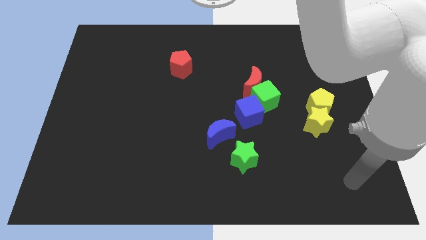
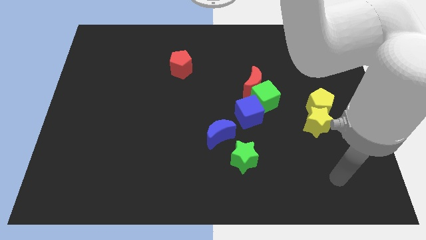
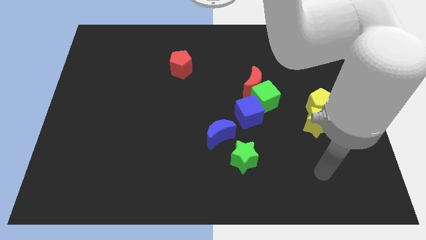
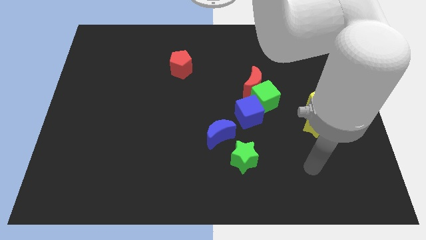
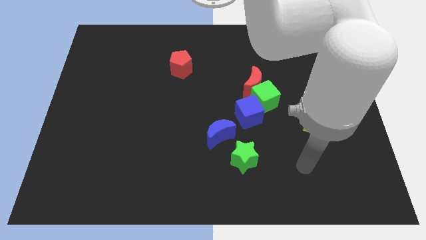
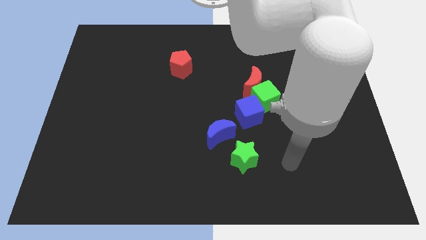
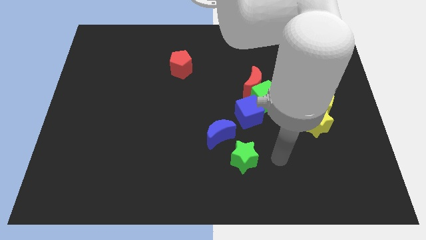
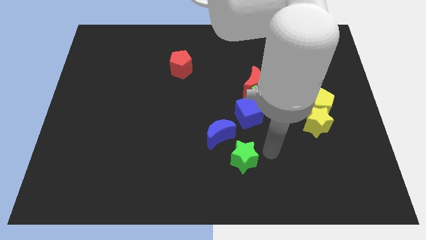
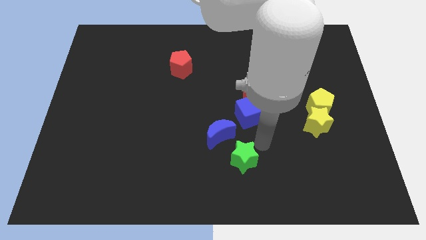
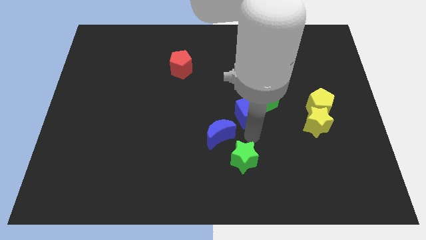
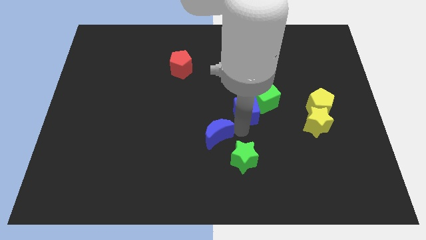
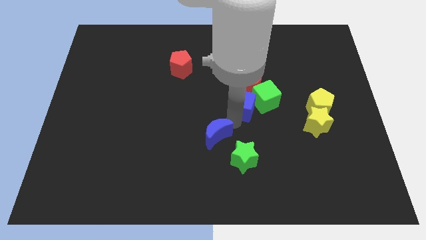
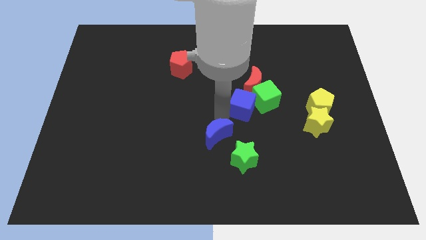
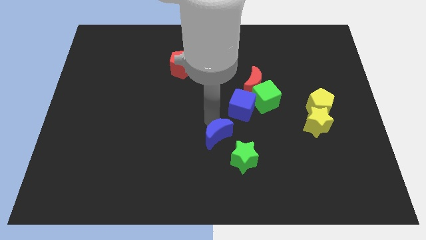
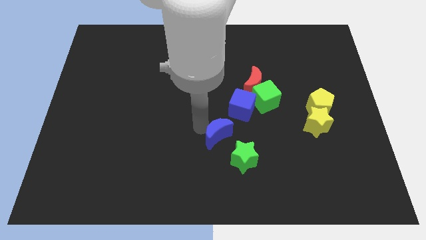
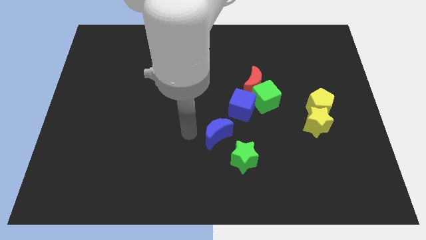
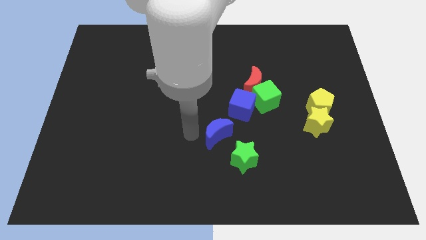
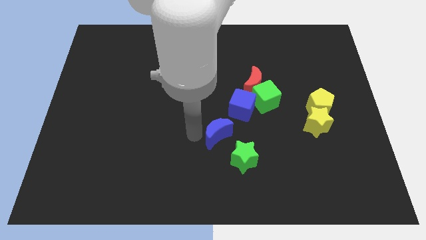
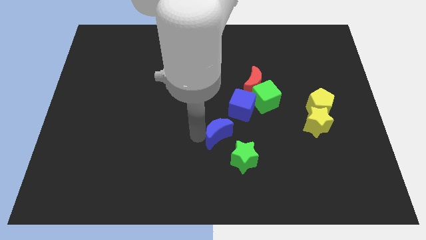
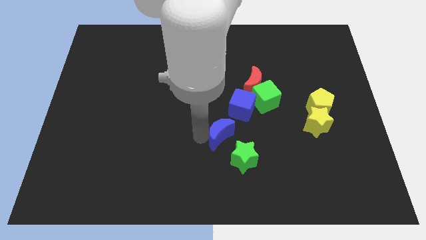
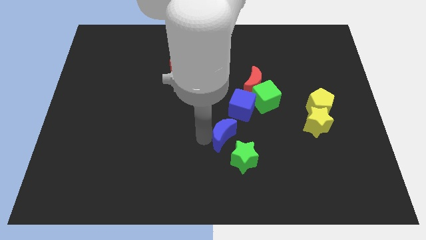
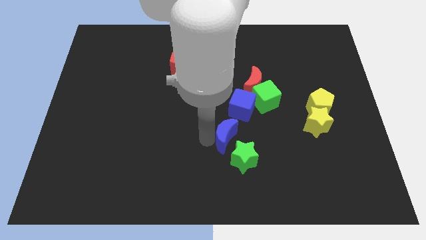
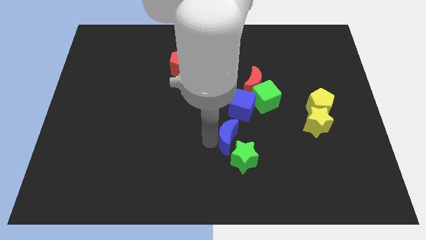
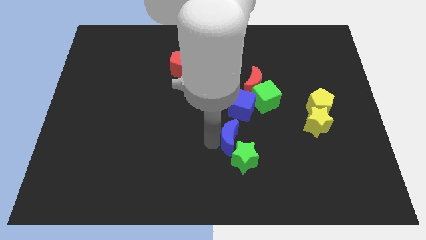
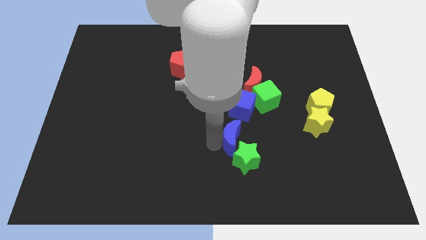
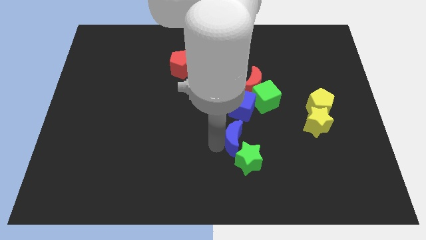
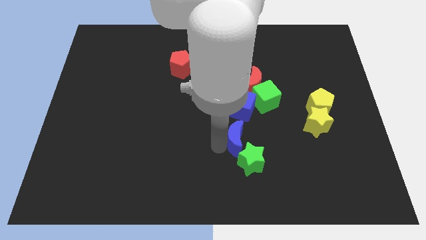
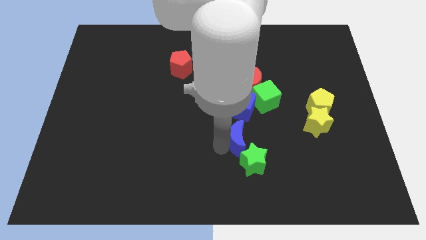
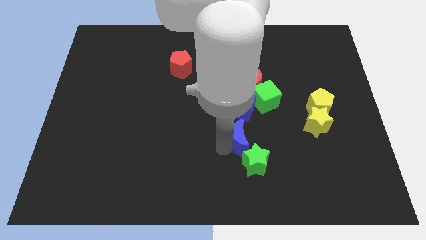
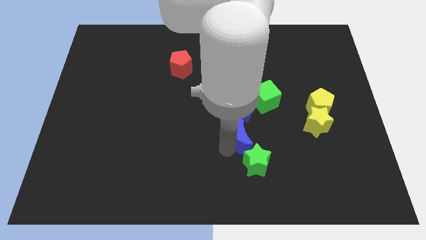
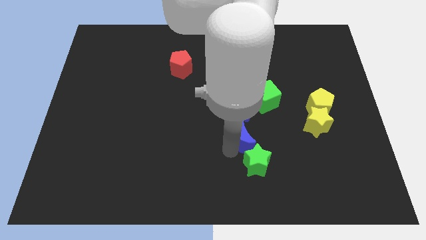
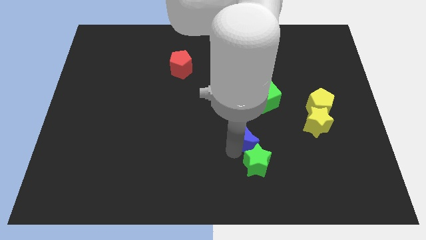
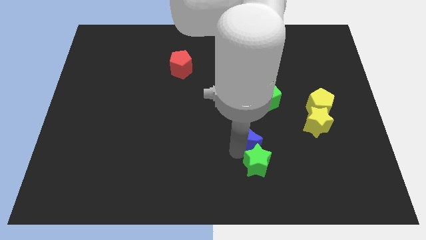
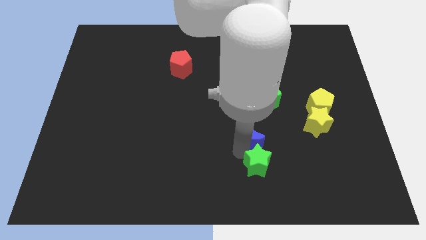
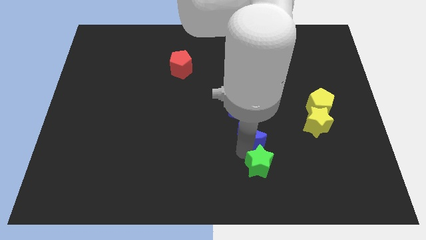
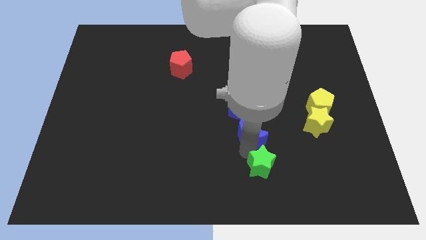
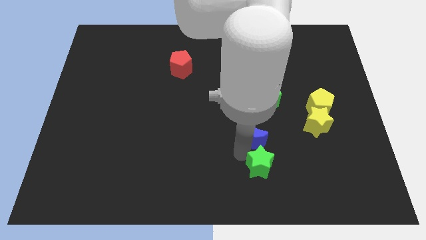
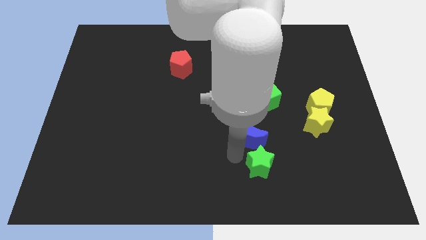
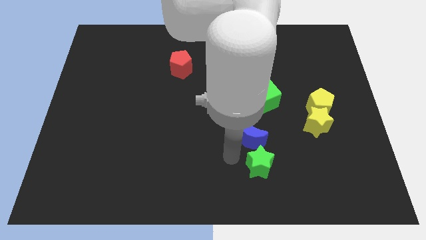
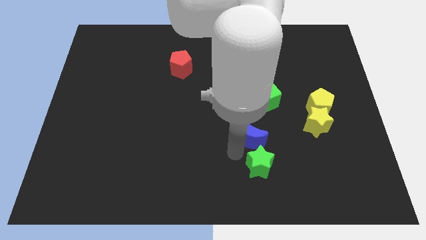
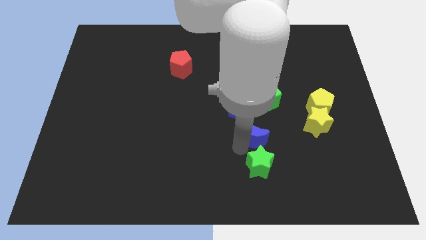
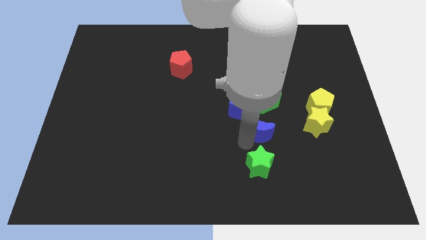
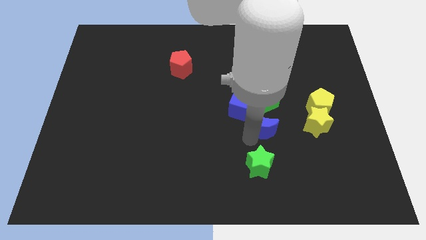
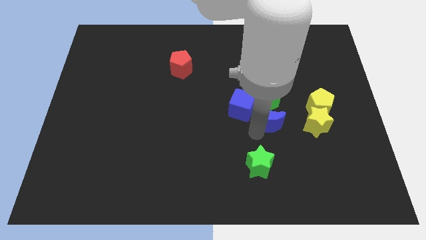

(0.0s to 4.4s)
slide the blue moon slightly diagonally up and right

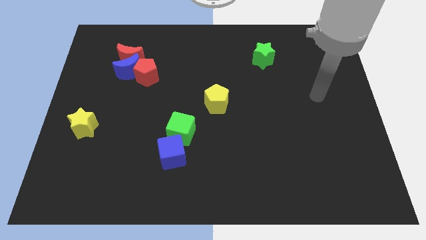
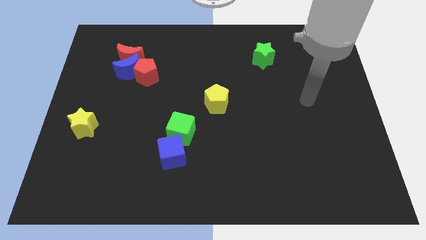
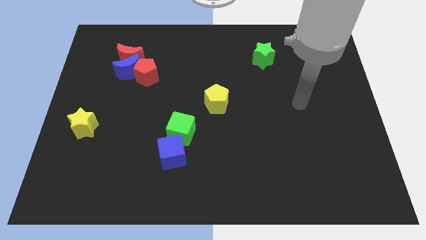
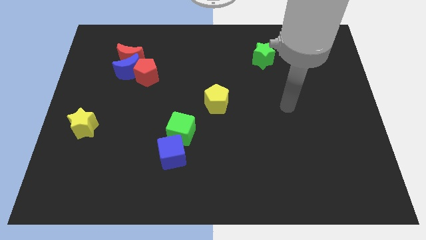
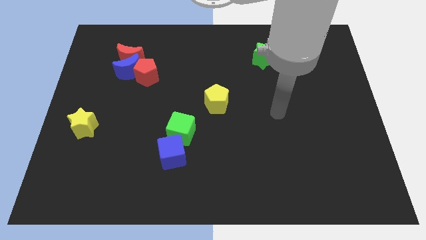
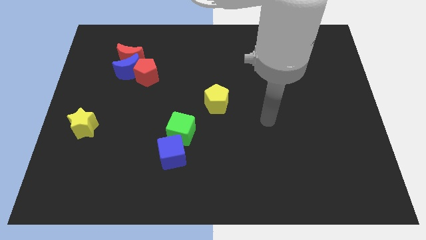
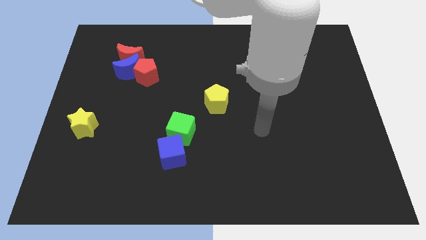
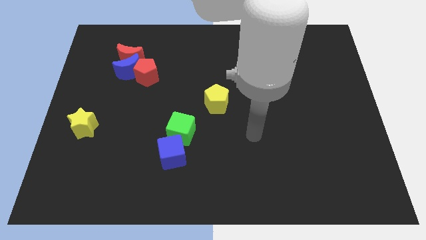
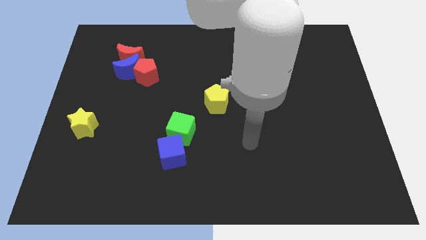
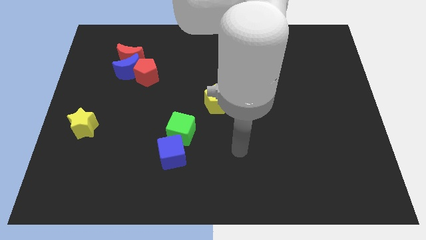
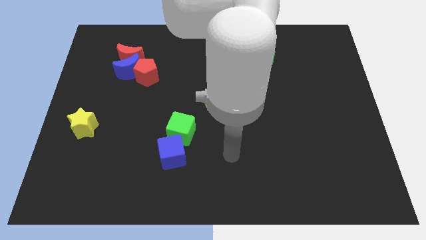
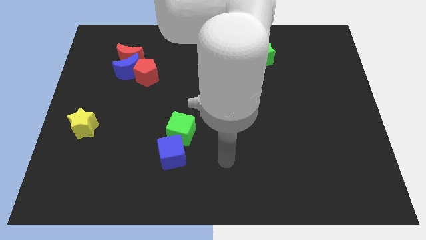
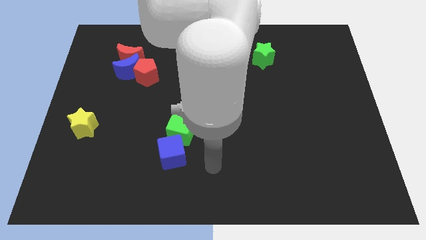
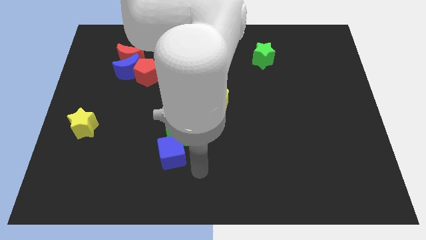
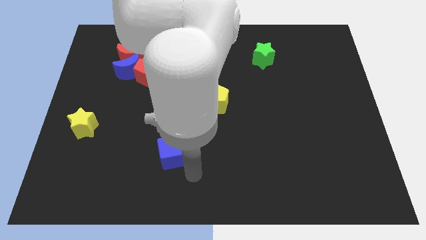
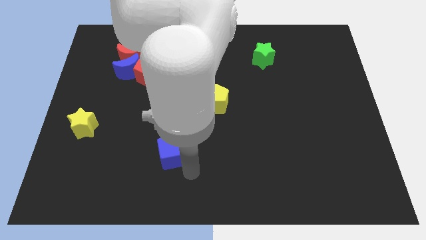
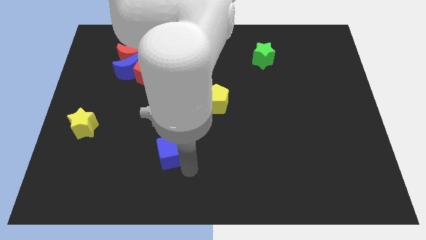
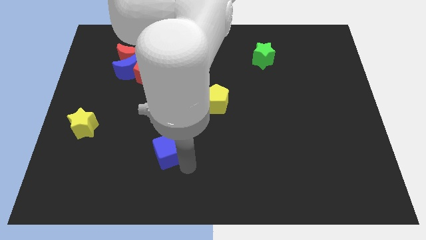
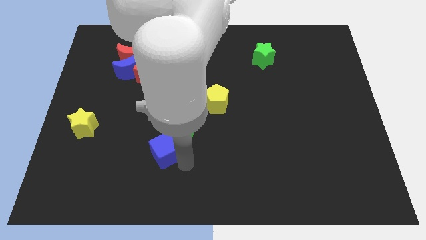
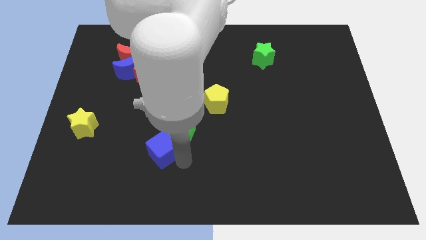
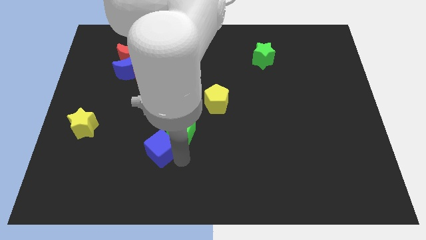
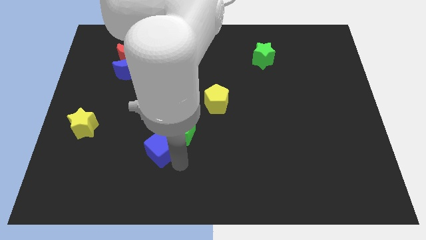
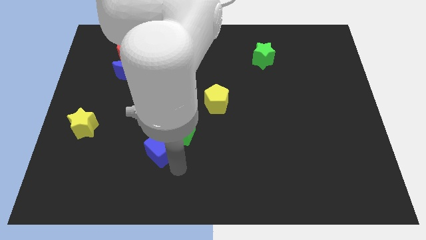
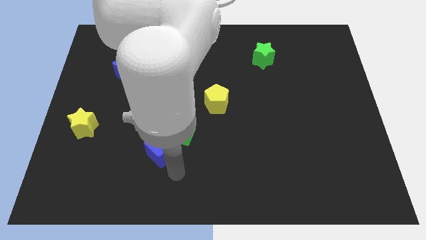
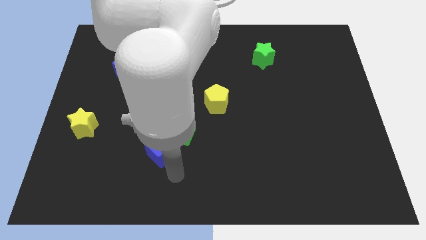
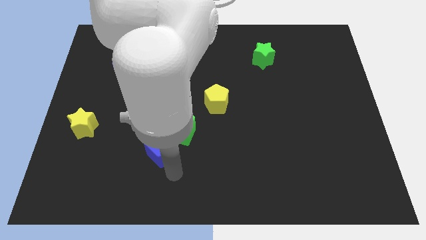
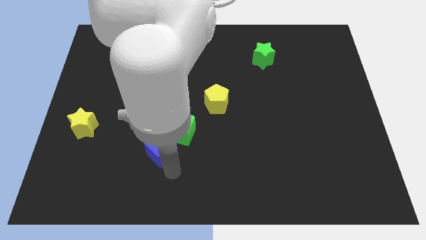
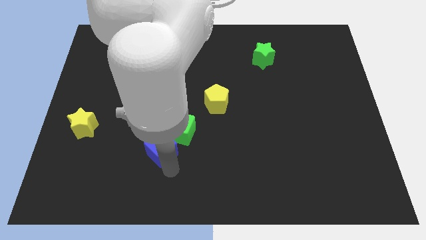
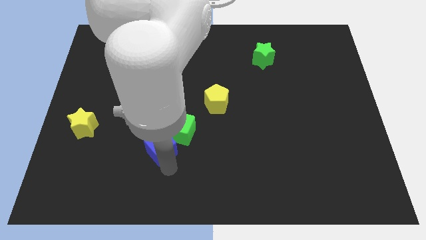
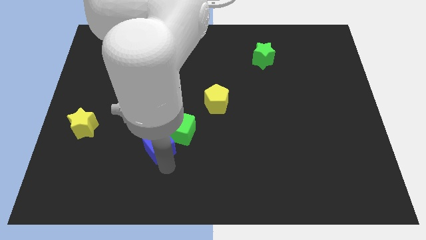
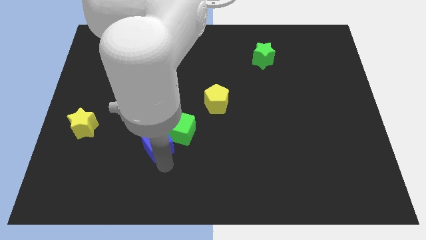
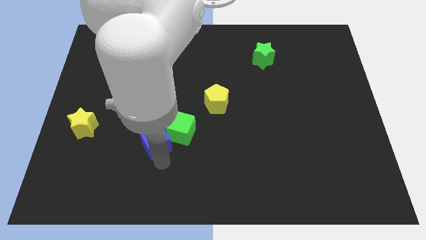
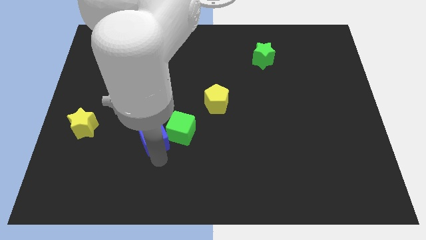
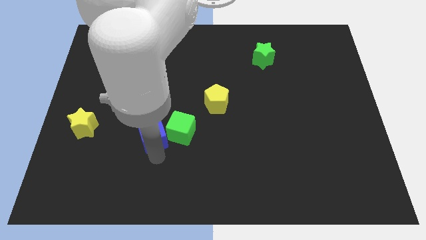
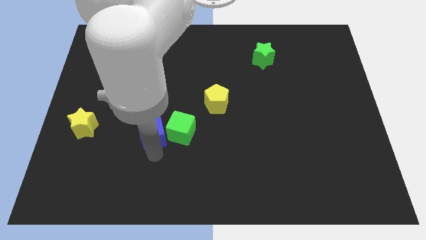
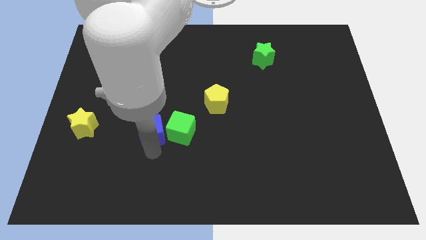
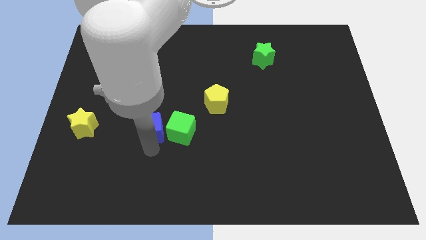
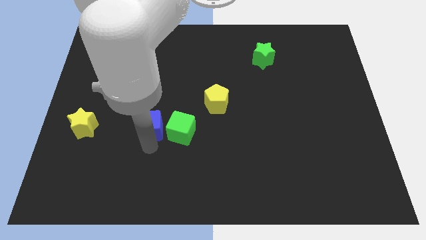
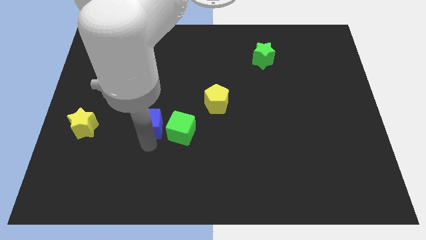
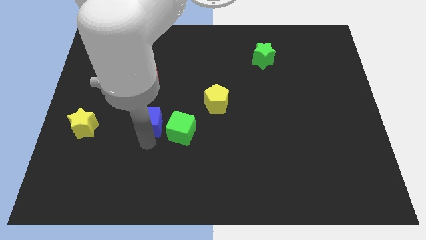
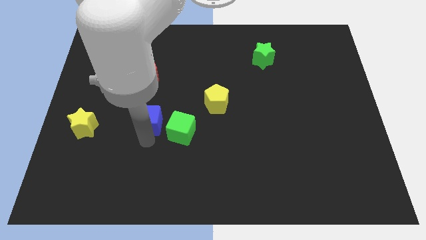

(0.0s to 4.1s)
push the blue cube a little bit up
